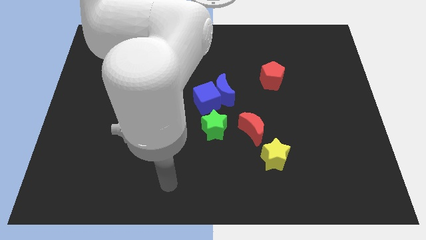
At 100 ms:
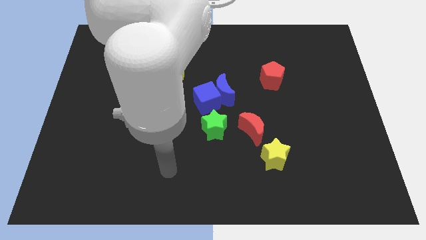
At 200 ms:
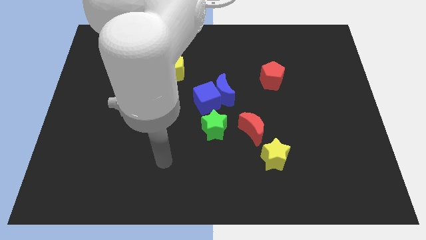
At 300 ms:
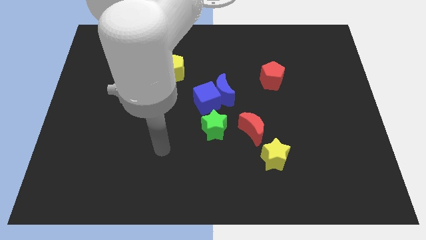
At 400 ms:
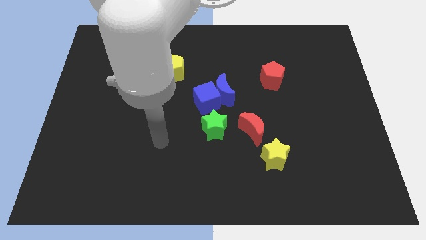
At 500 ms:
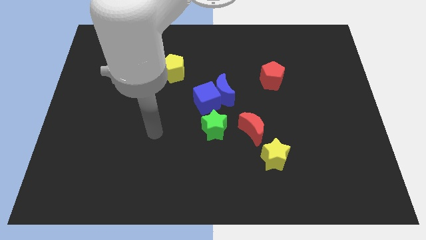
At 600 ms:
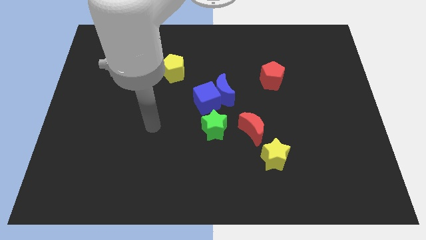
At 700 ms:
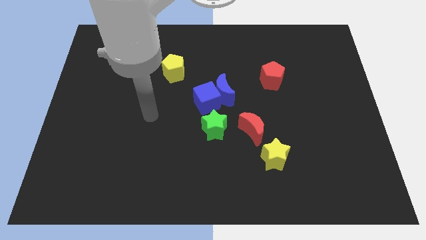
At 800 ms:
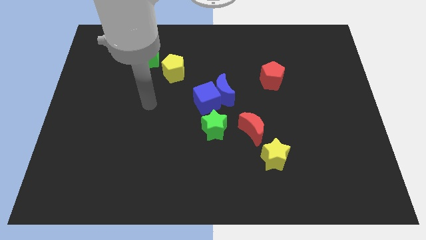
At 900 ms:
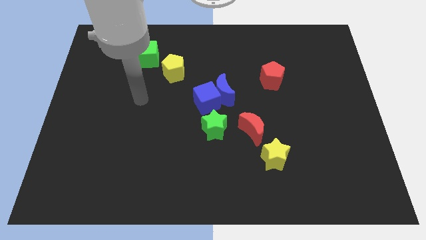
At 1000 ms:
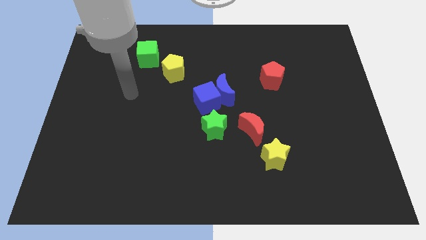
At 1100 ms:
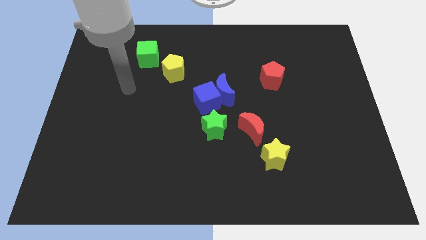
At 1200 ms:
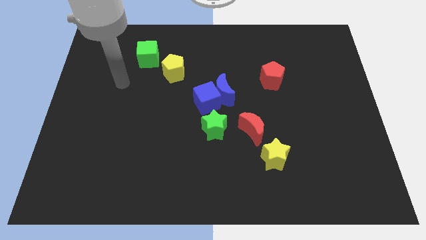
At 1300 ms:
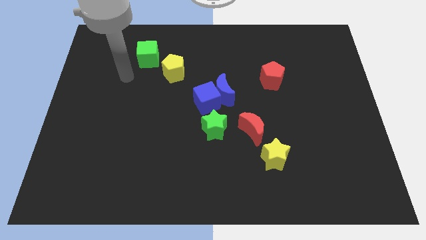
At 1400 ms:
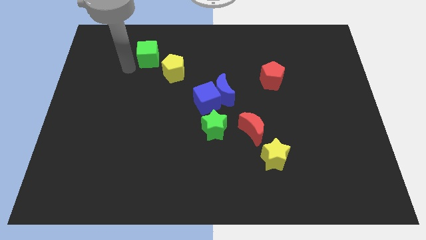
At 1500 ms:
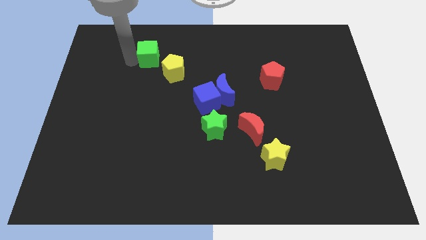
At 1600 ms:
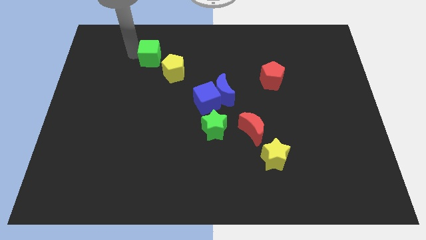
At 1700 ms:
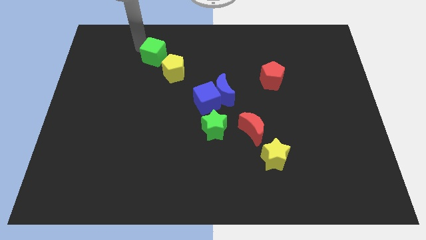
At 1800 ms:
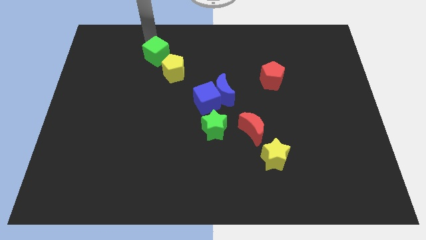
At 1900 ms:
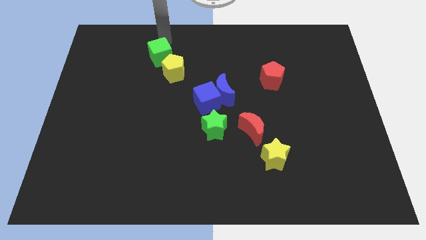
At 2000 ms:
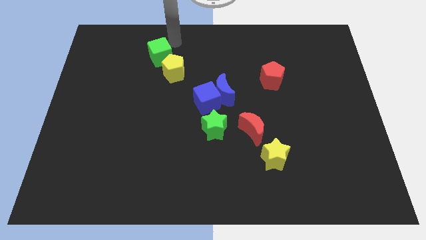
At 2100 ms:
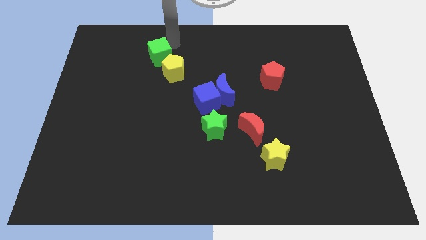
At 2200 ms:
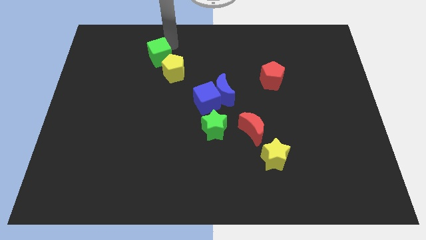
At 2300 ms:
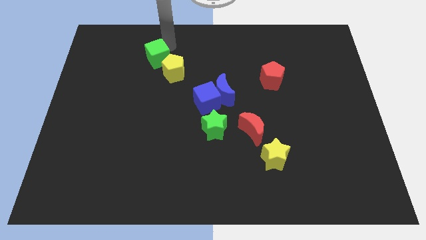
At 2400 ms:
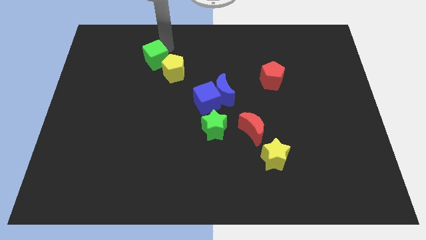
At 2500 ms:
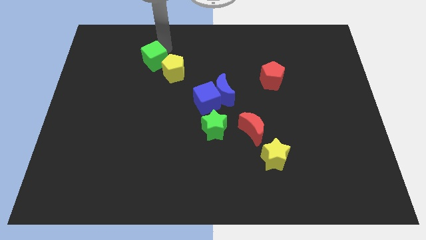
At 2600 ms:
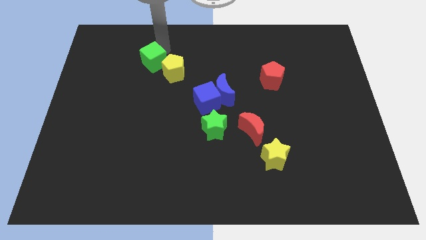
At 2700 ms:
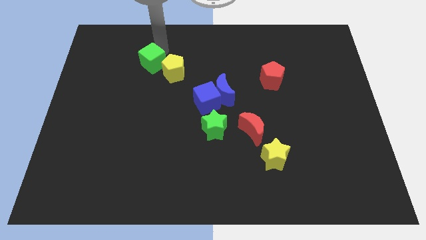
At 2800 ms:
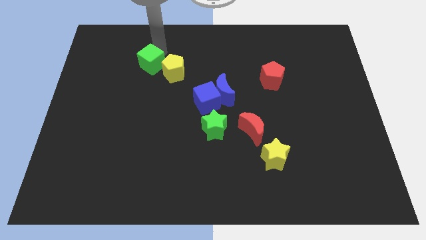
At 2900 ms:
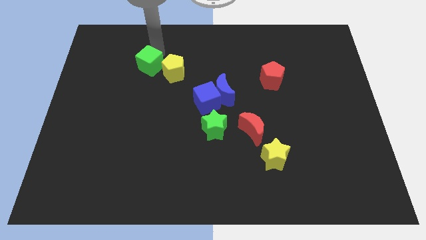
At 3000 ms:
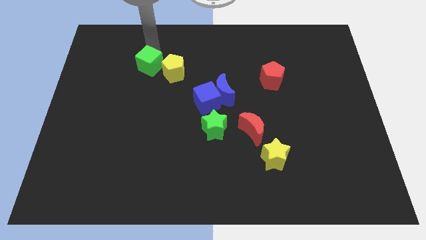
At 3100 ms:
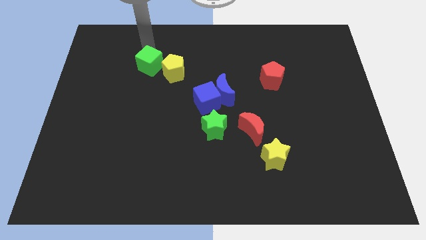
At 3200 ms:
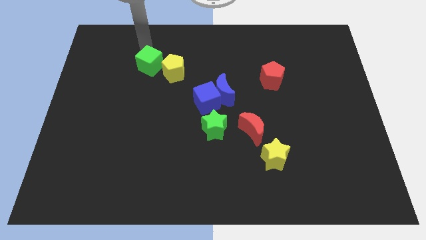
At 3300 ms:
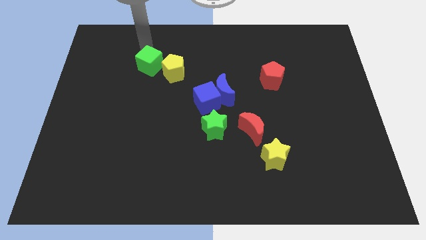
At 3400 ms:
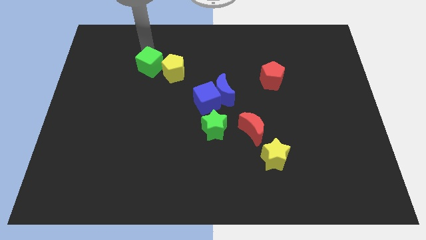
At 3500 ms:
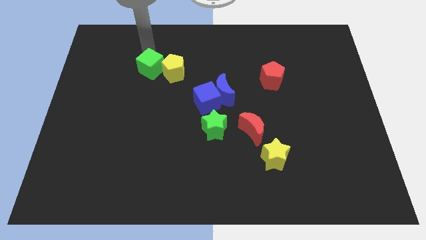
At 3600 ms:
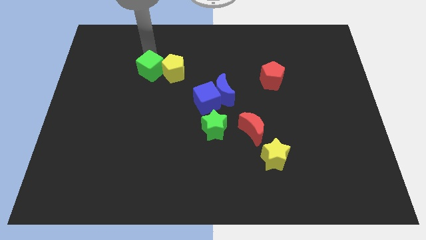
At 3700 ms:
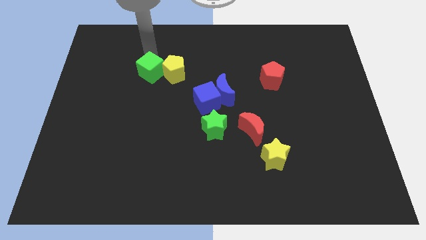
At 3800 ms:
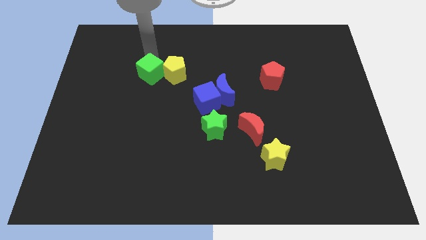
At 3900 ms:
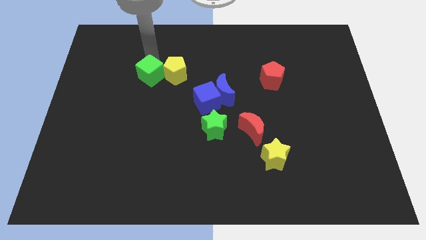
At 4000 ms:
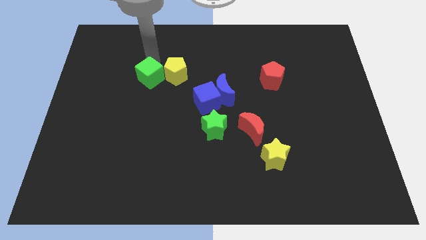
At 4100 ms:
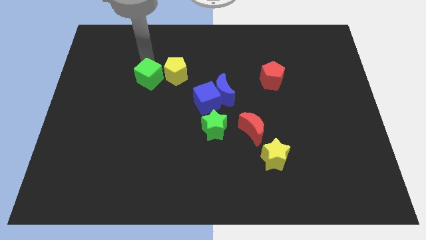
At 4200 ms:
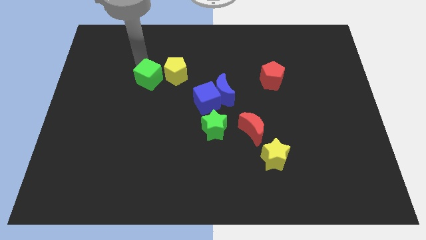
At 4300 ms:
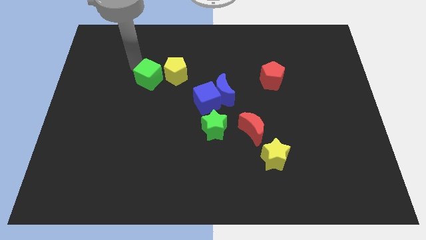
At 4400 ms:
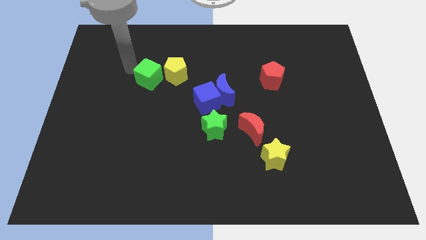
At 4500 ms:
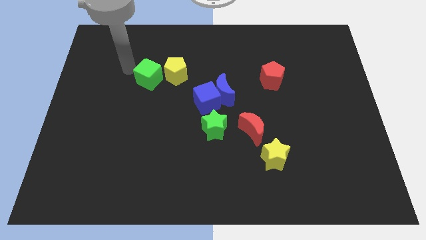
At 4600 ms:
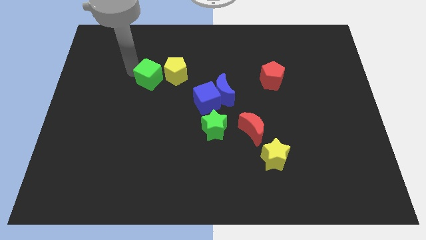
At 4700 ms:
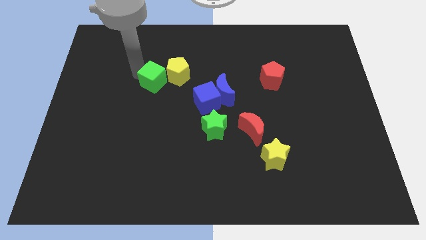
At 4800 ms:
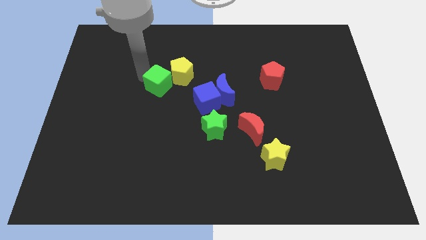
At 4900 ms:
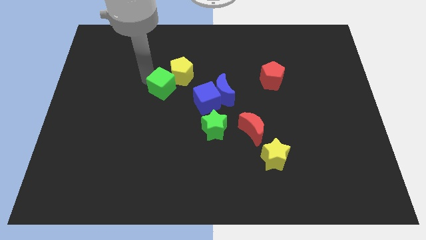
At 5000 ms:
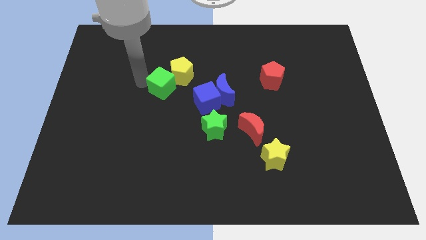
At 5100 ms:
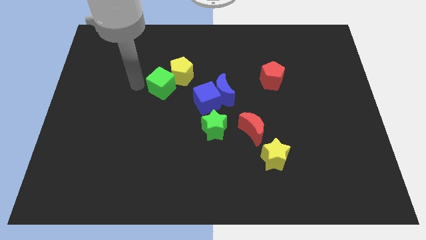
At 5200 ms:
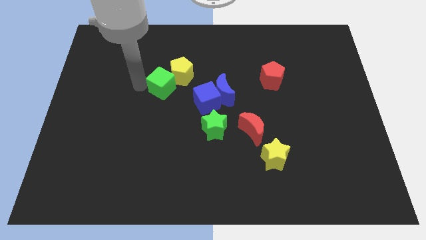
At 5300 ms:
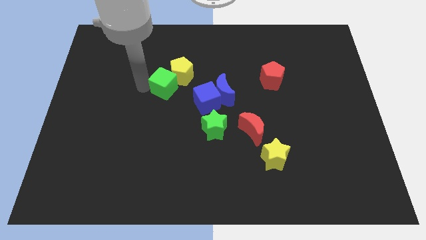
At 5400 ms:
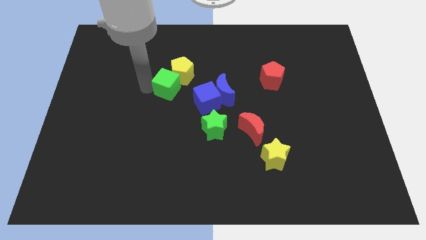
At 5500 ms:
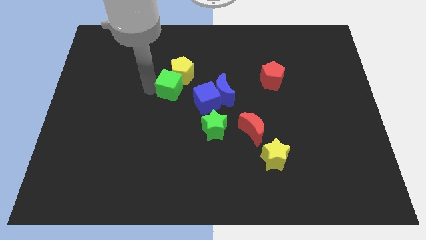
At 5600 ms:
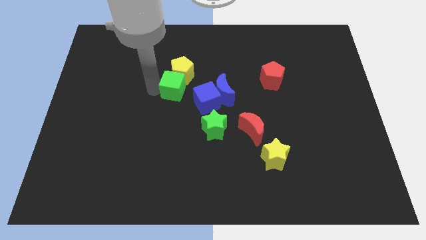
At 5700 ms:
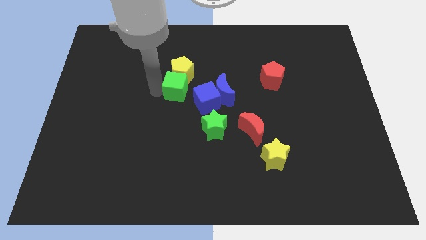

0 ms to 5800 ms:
put the green cube diagonally down and to the right of the yellow pentagon

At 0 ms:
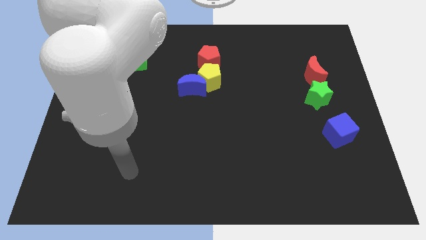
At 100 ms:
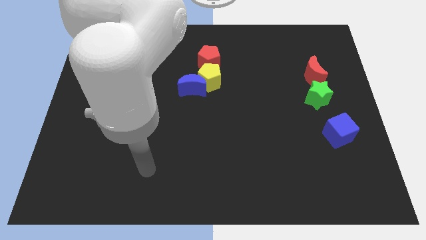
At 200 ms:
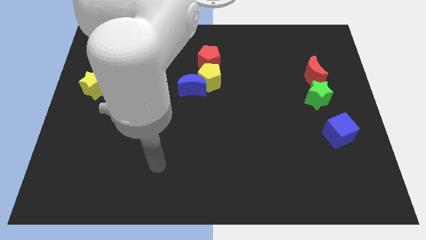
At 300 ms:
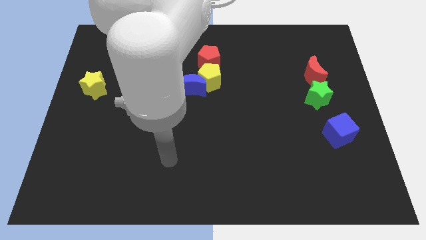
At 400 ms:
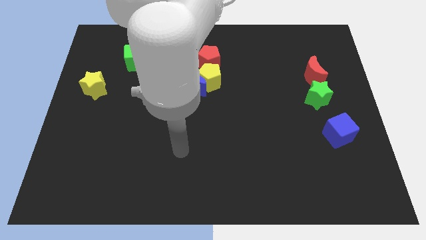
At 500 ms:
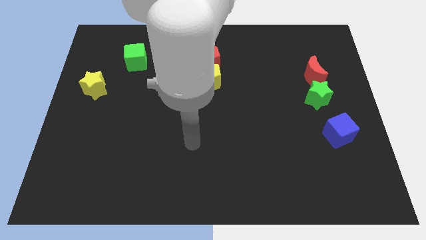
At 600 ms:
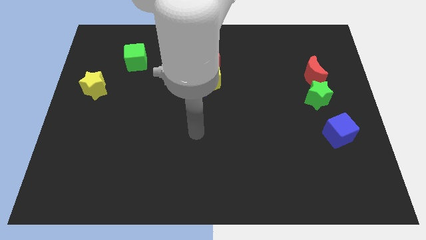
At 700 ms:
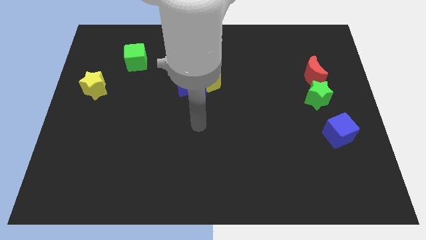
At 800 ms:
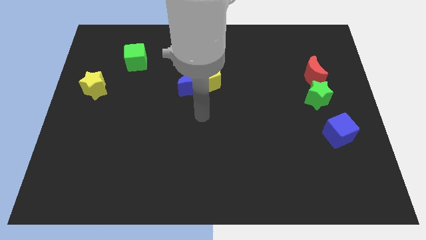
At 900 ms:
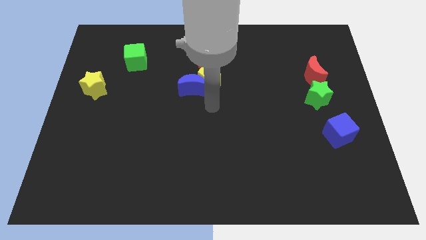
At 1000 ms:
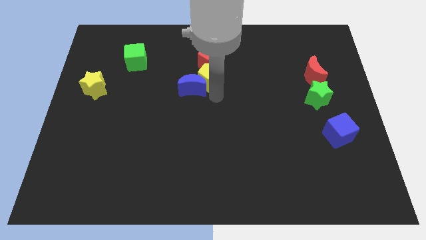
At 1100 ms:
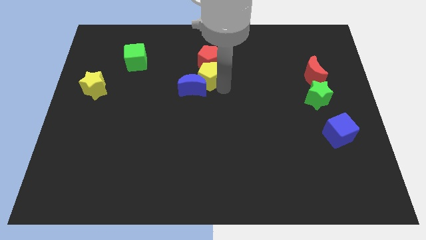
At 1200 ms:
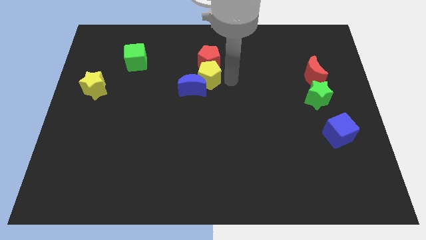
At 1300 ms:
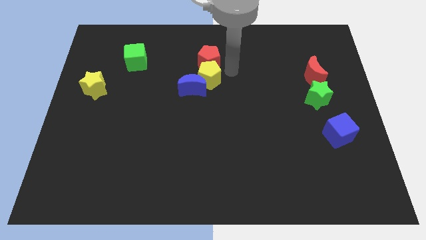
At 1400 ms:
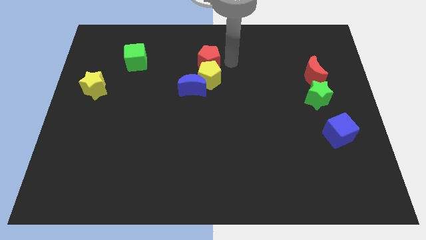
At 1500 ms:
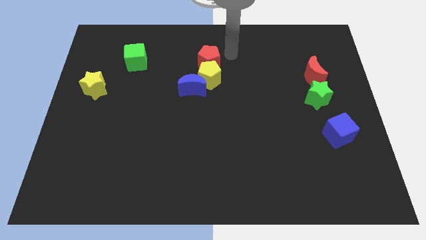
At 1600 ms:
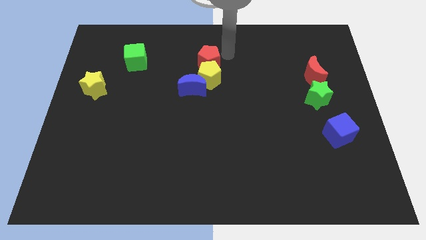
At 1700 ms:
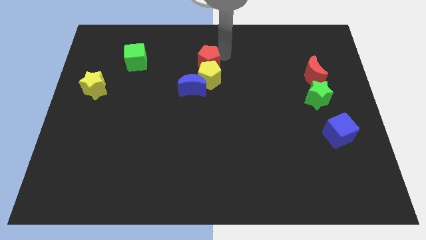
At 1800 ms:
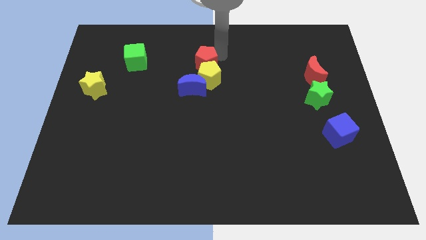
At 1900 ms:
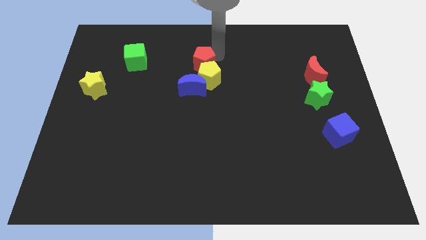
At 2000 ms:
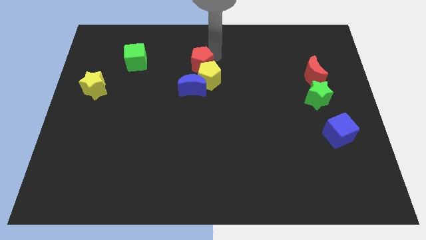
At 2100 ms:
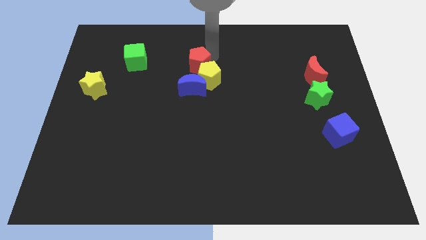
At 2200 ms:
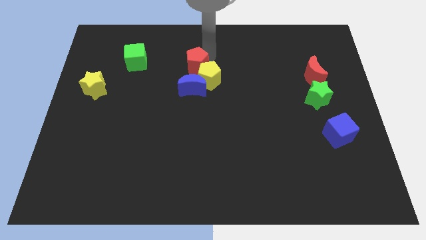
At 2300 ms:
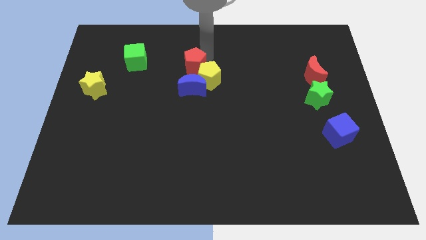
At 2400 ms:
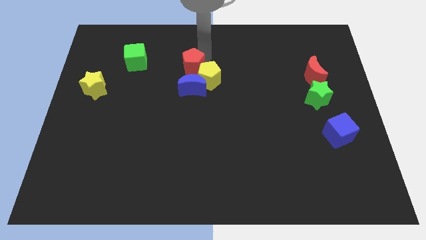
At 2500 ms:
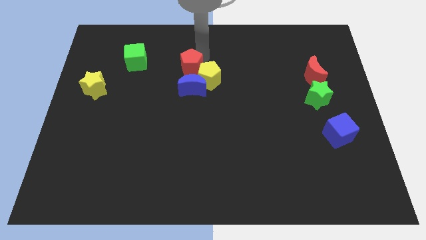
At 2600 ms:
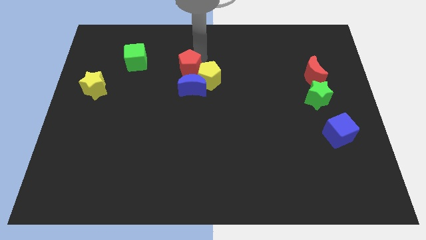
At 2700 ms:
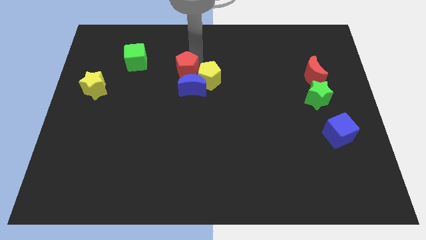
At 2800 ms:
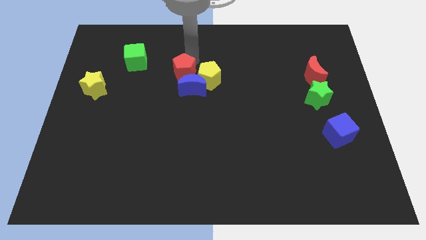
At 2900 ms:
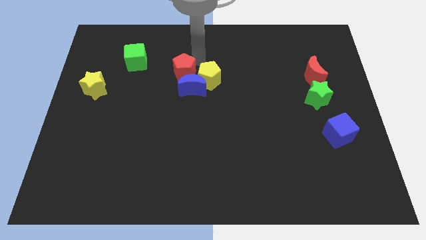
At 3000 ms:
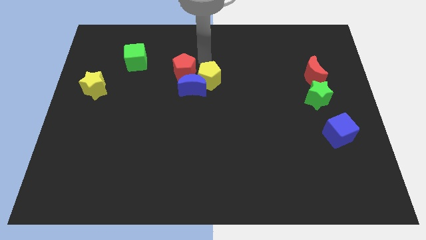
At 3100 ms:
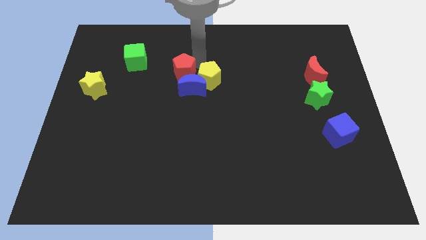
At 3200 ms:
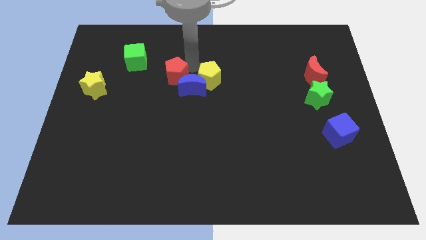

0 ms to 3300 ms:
put the red pentagon to the left of the blue moon
